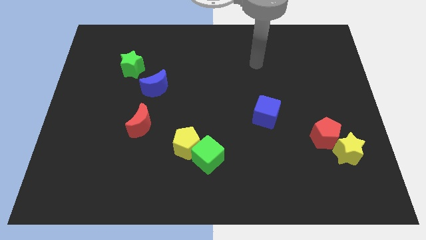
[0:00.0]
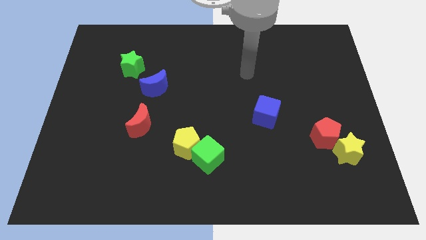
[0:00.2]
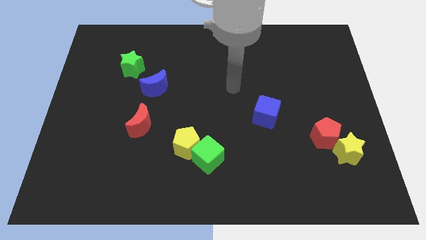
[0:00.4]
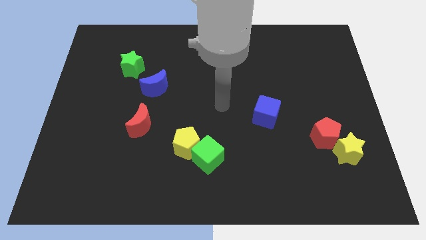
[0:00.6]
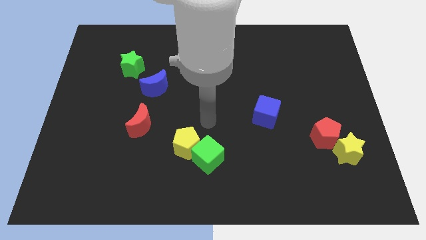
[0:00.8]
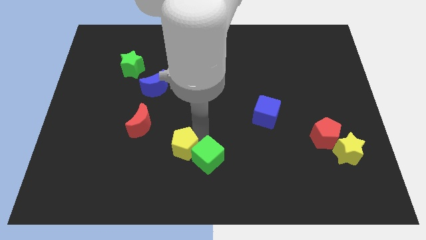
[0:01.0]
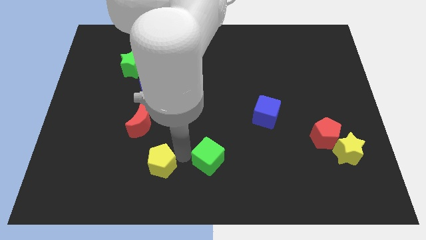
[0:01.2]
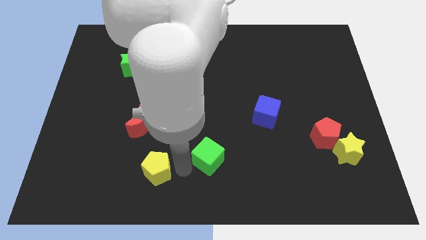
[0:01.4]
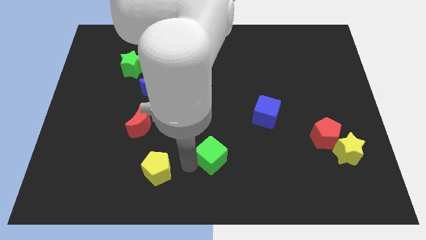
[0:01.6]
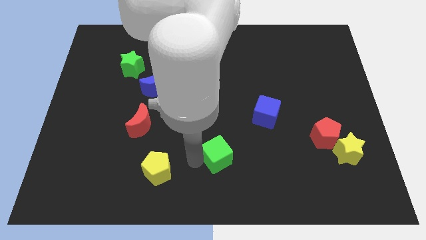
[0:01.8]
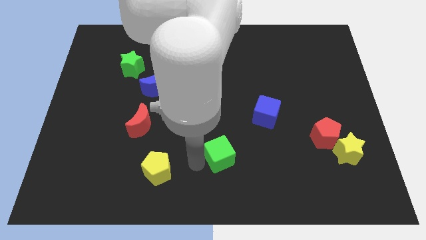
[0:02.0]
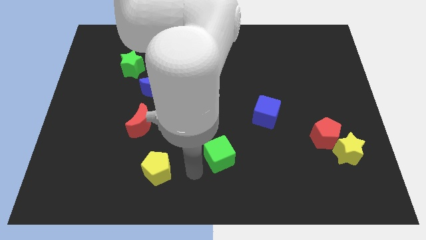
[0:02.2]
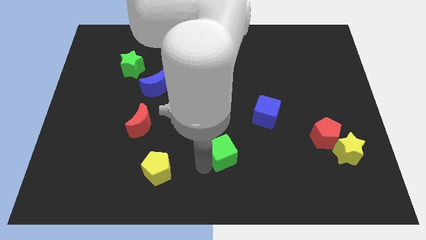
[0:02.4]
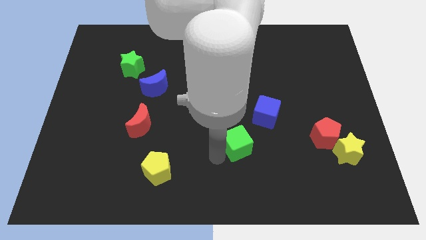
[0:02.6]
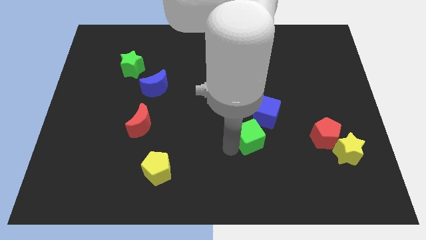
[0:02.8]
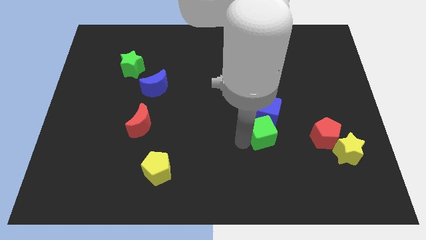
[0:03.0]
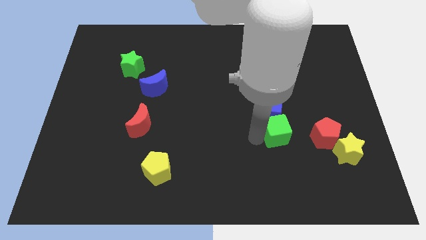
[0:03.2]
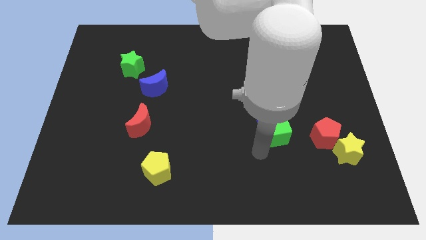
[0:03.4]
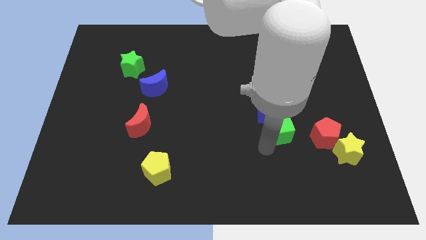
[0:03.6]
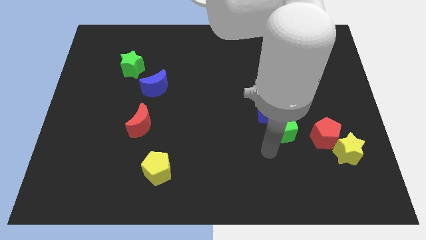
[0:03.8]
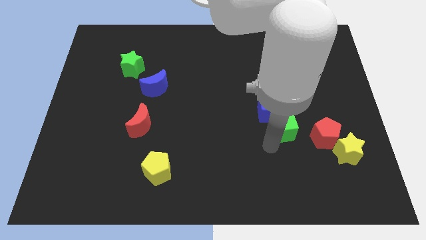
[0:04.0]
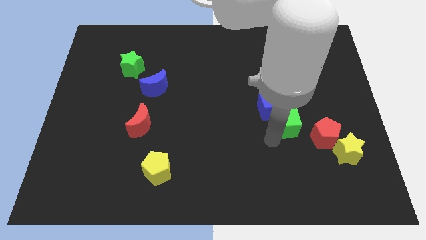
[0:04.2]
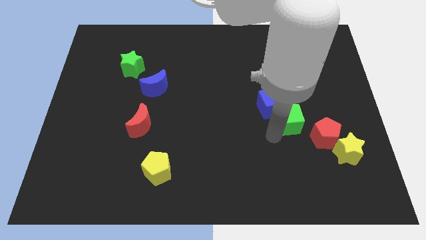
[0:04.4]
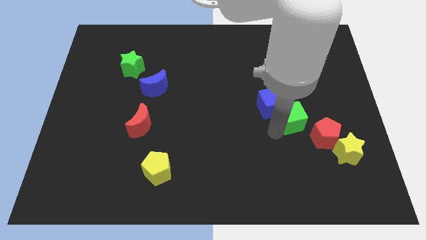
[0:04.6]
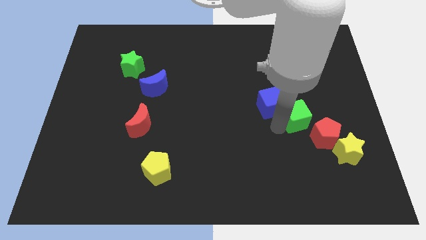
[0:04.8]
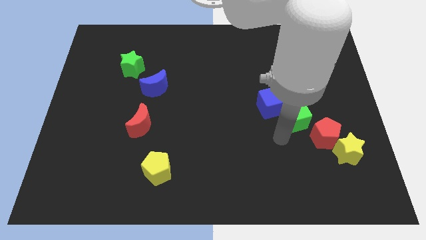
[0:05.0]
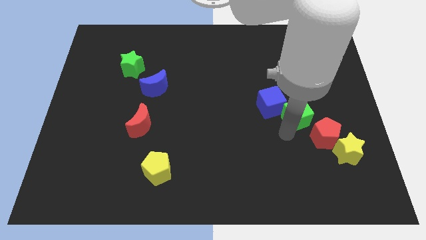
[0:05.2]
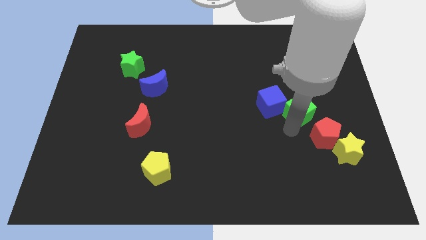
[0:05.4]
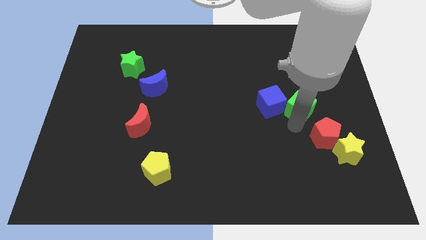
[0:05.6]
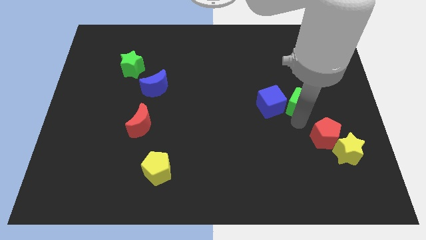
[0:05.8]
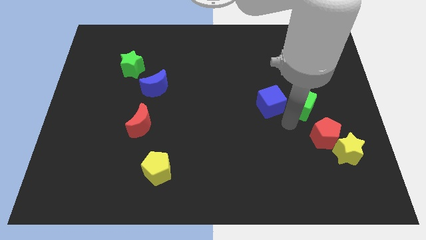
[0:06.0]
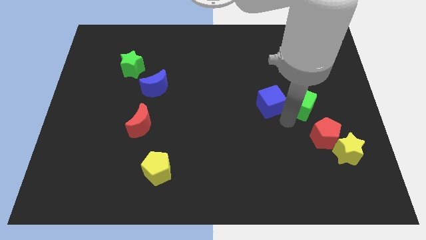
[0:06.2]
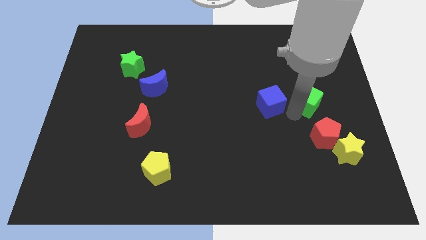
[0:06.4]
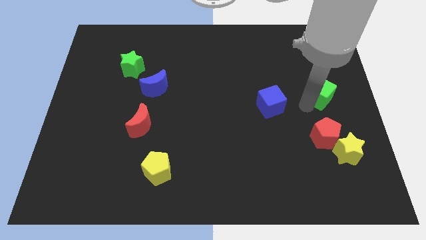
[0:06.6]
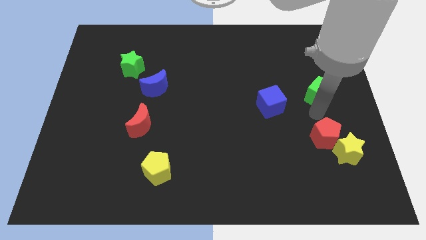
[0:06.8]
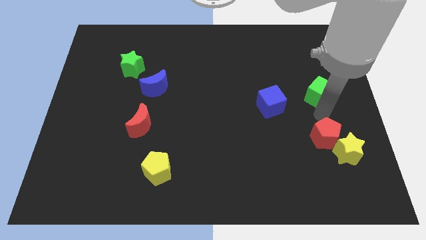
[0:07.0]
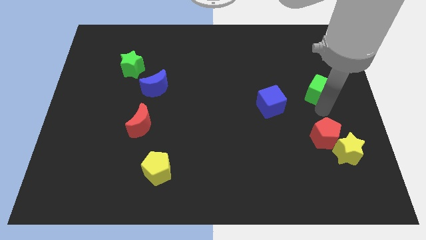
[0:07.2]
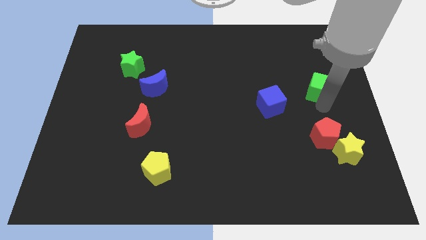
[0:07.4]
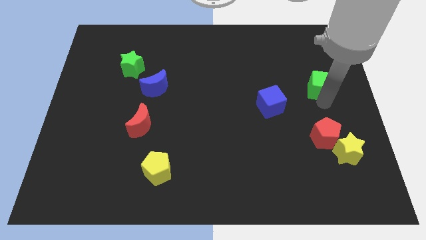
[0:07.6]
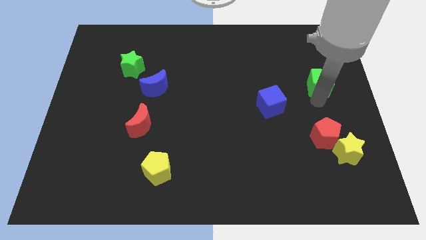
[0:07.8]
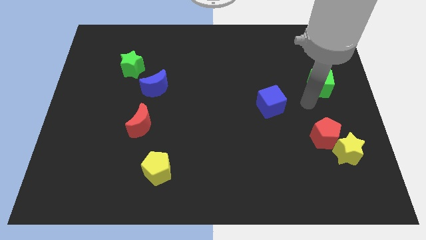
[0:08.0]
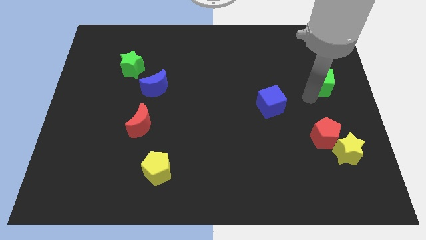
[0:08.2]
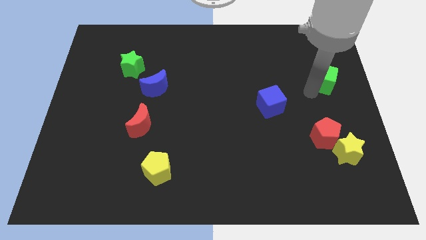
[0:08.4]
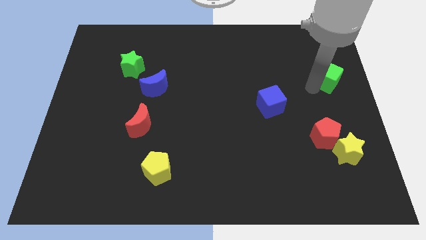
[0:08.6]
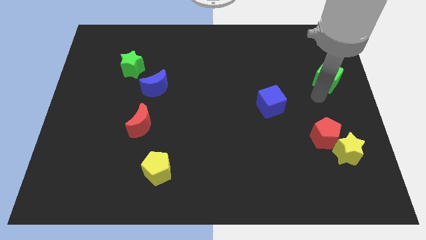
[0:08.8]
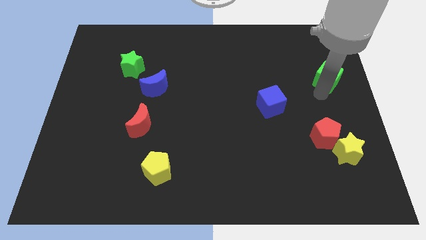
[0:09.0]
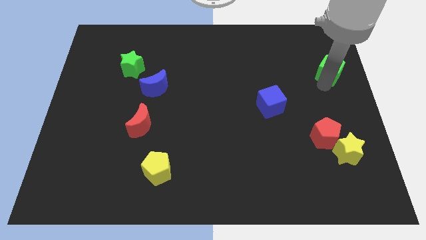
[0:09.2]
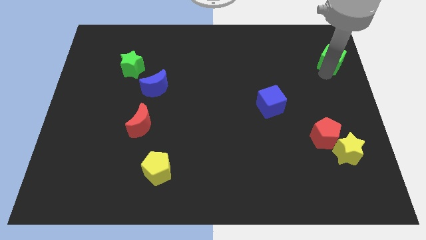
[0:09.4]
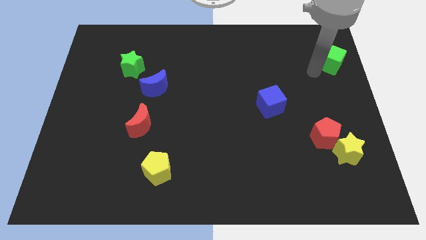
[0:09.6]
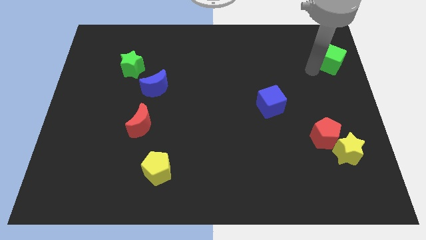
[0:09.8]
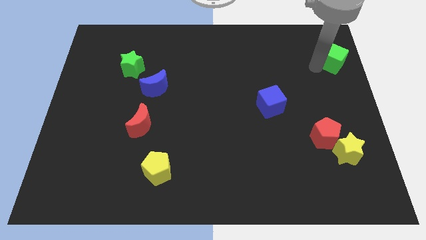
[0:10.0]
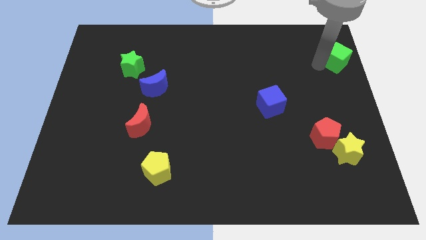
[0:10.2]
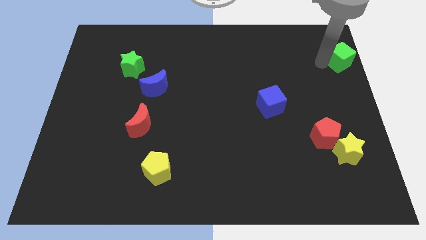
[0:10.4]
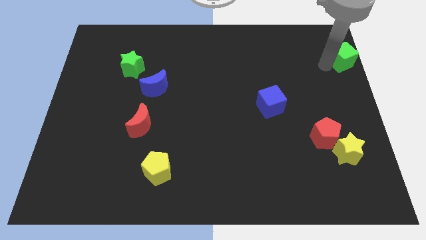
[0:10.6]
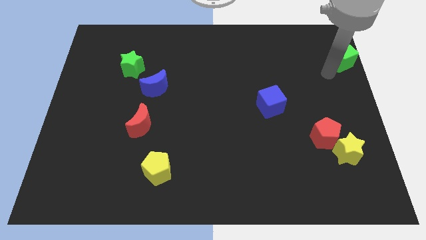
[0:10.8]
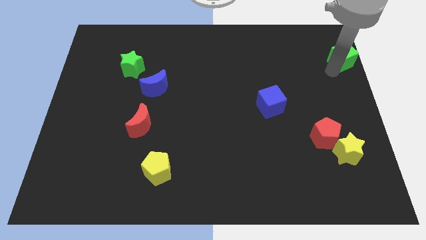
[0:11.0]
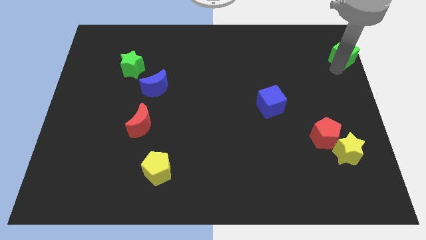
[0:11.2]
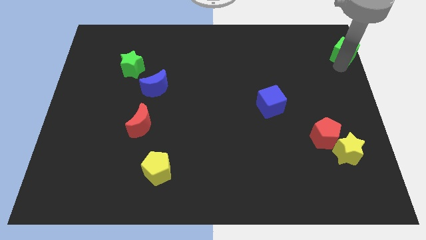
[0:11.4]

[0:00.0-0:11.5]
put the green cube to the top right corner

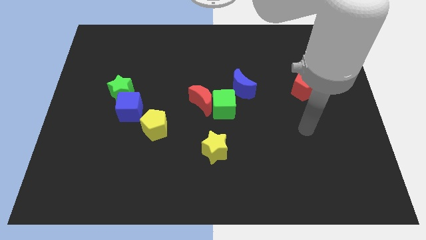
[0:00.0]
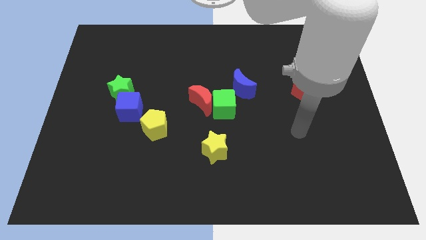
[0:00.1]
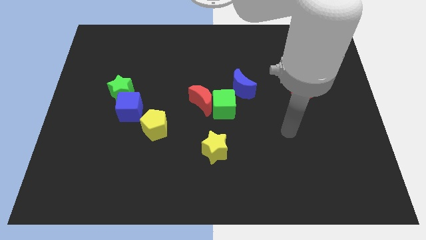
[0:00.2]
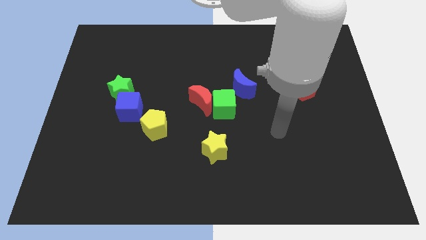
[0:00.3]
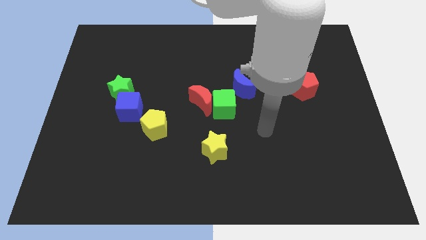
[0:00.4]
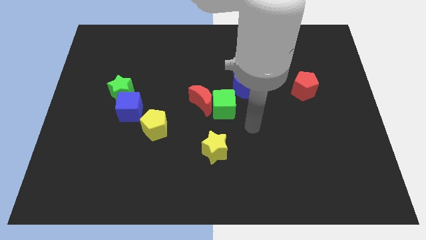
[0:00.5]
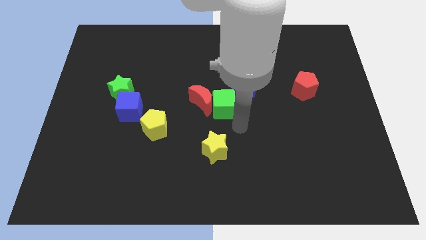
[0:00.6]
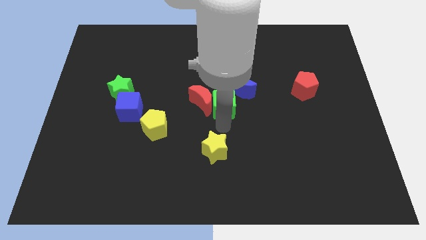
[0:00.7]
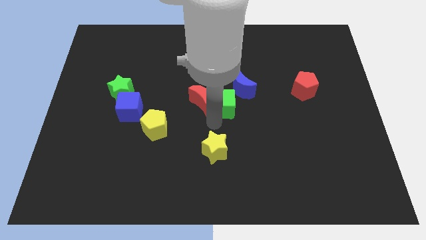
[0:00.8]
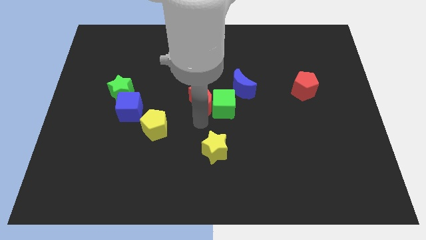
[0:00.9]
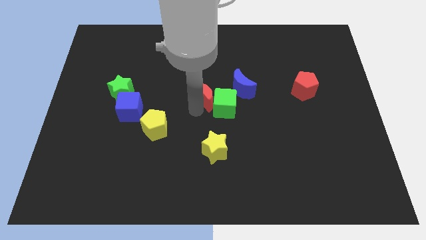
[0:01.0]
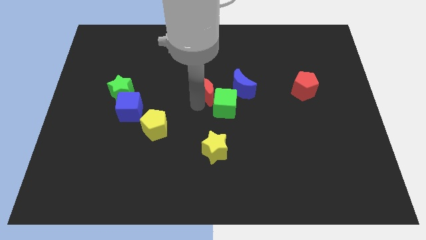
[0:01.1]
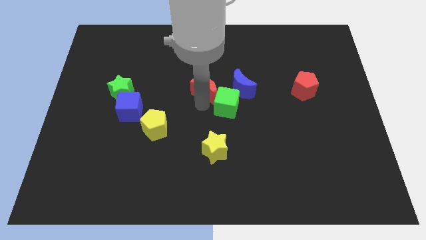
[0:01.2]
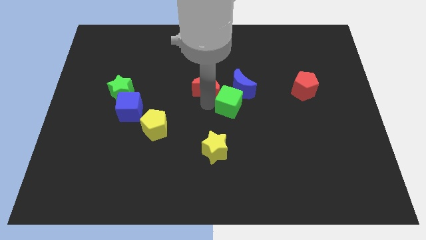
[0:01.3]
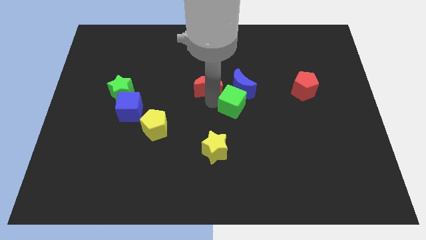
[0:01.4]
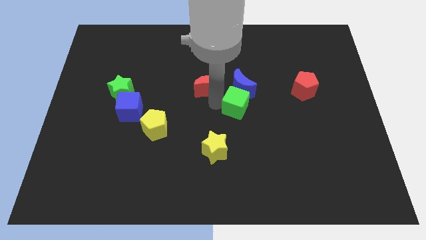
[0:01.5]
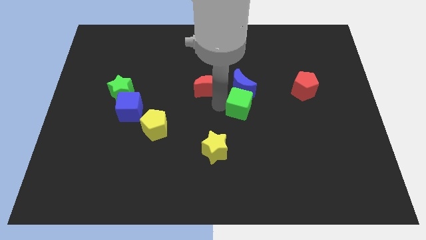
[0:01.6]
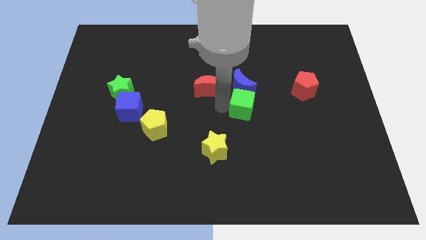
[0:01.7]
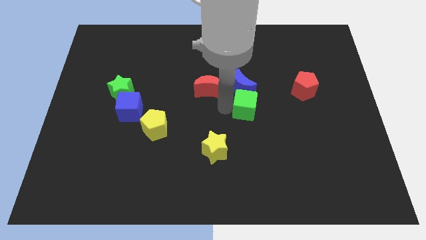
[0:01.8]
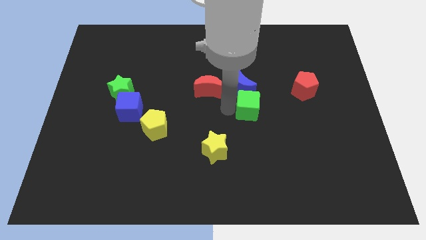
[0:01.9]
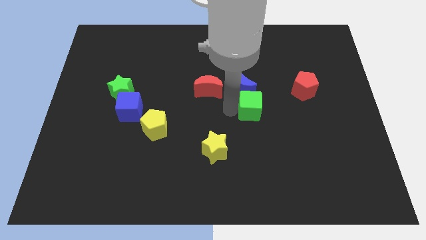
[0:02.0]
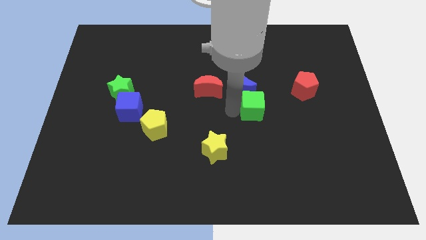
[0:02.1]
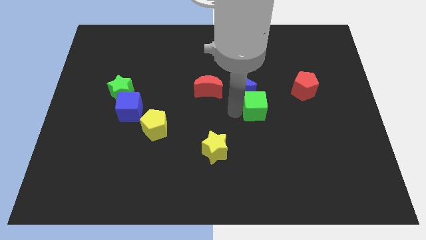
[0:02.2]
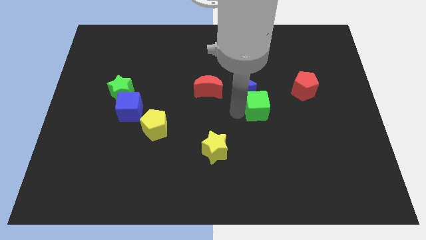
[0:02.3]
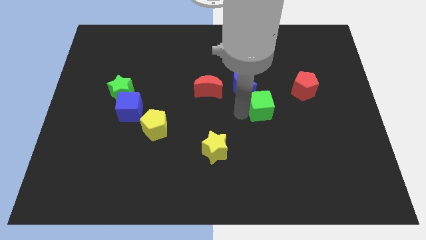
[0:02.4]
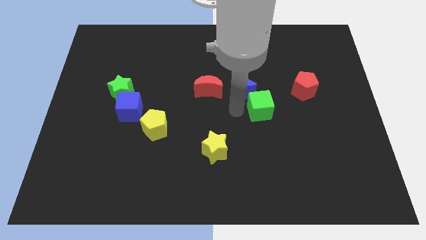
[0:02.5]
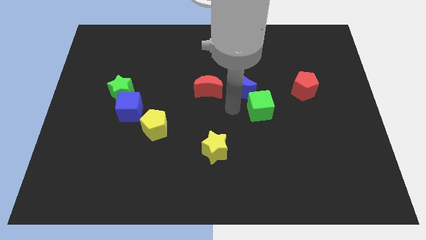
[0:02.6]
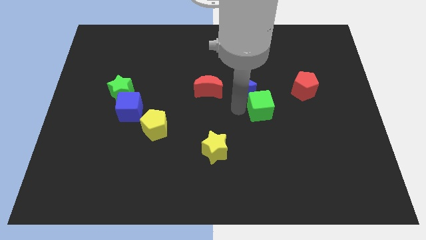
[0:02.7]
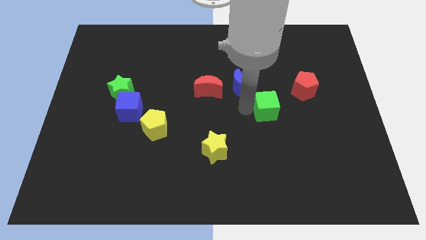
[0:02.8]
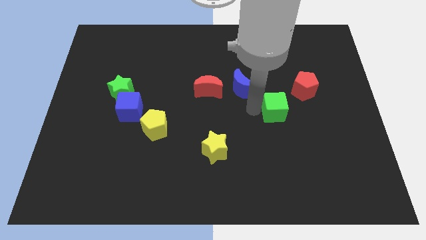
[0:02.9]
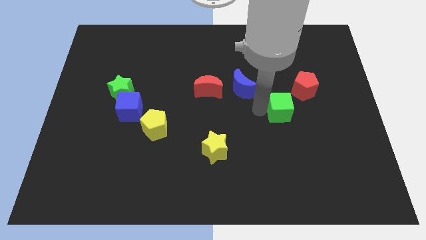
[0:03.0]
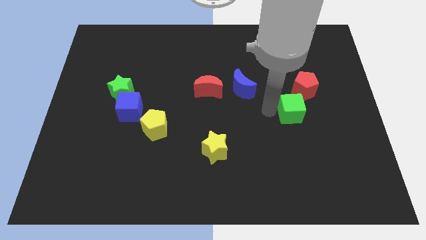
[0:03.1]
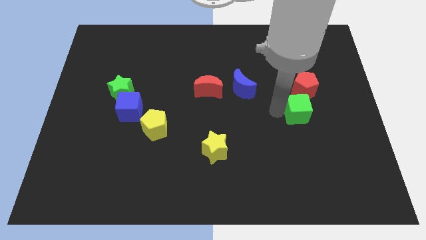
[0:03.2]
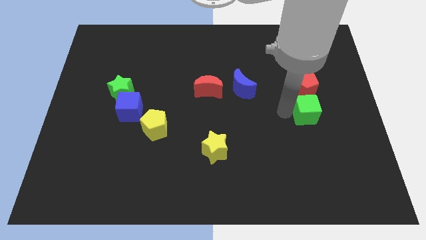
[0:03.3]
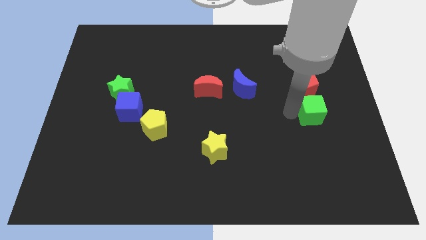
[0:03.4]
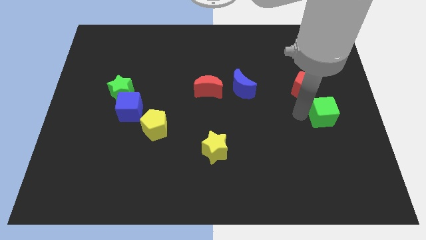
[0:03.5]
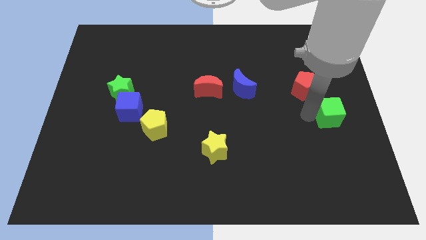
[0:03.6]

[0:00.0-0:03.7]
put the green cube to the right side of the board
